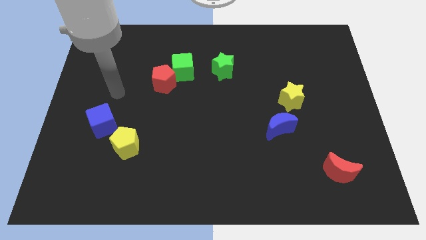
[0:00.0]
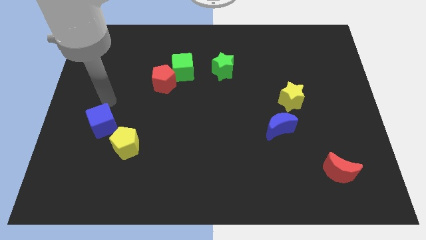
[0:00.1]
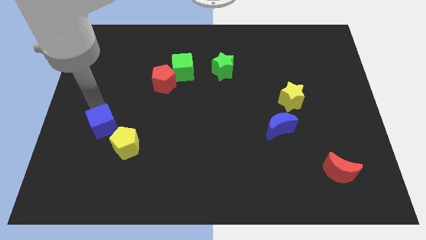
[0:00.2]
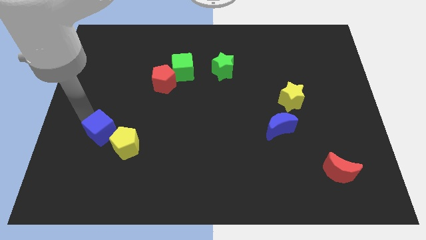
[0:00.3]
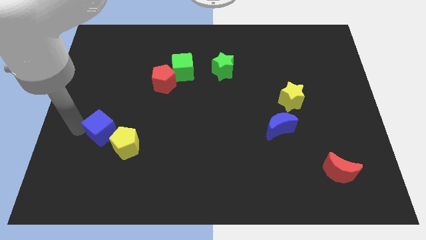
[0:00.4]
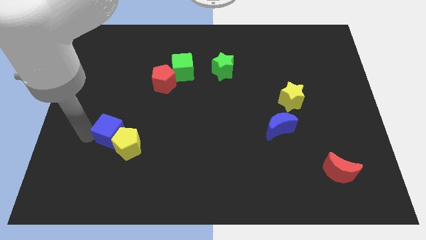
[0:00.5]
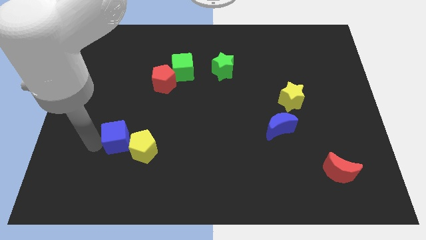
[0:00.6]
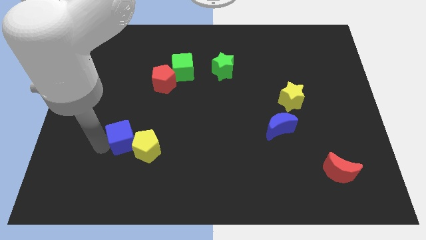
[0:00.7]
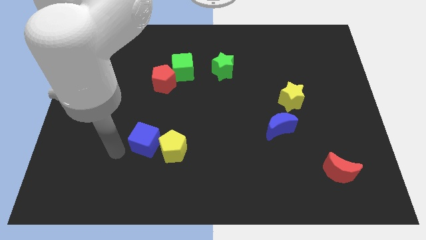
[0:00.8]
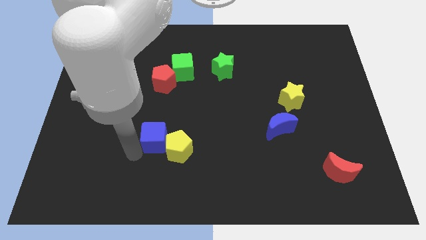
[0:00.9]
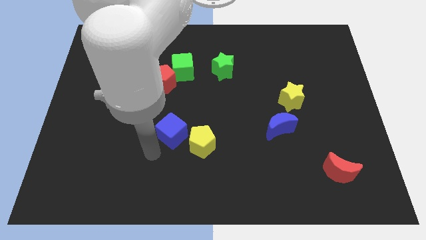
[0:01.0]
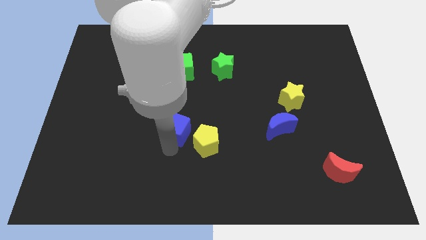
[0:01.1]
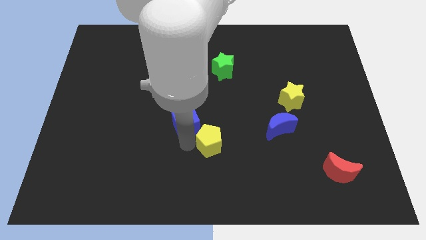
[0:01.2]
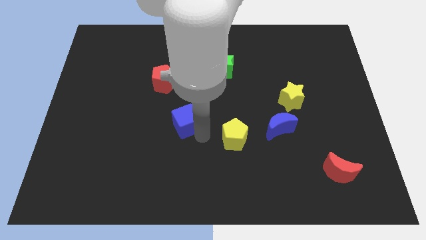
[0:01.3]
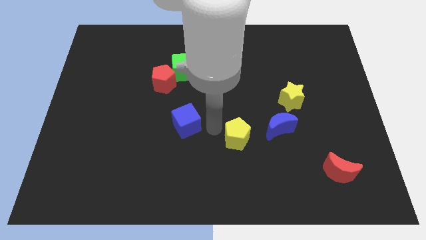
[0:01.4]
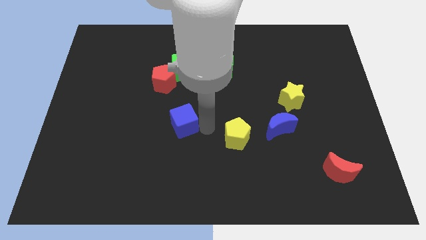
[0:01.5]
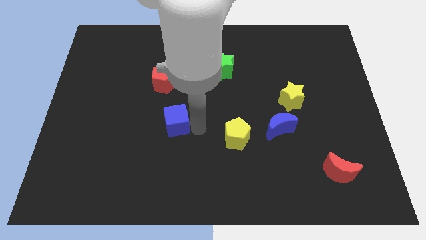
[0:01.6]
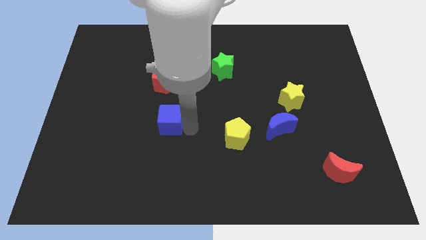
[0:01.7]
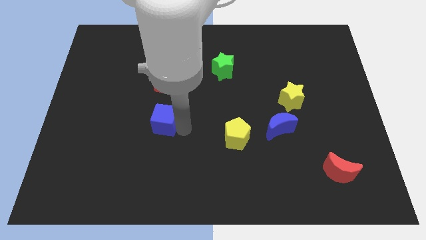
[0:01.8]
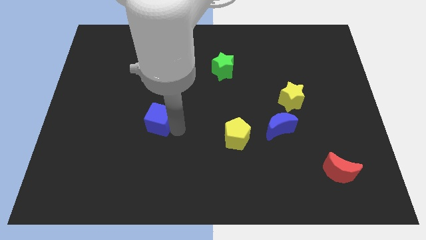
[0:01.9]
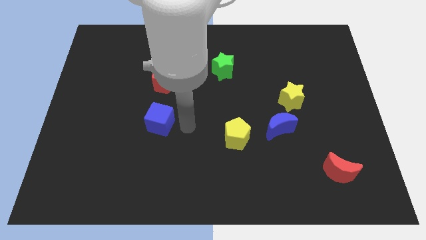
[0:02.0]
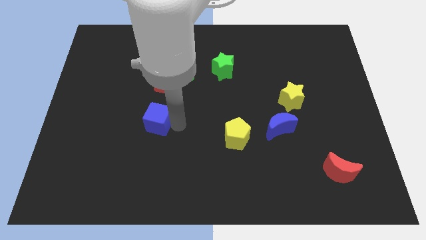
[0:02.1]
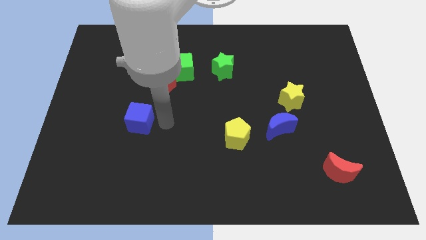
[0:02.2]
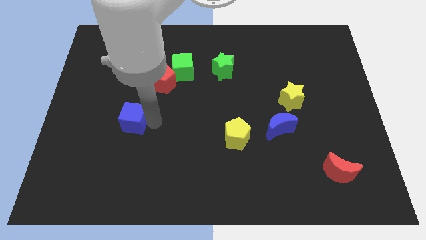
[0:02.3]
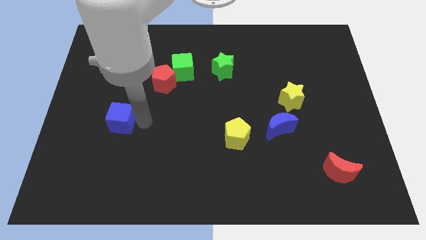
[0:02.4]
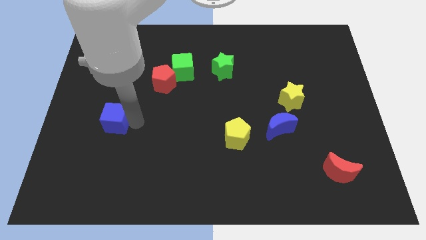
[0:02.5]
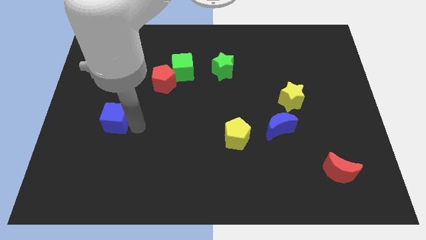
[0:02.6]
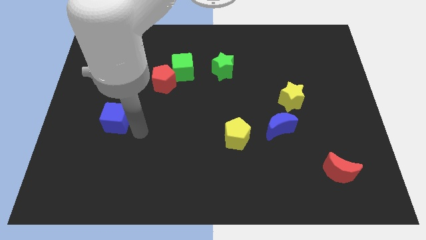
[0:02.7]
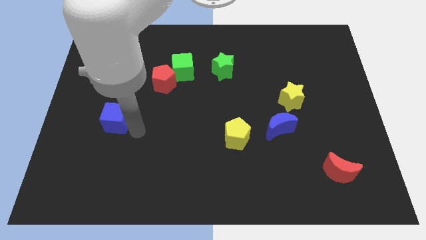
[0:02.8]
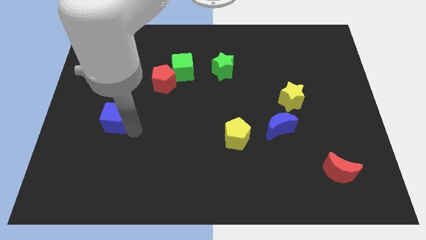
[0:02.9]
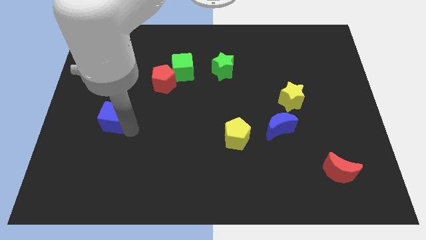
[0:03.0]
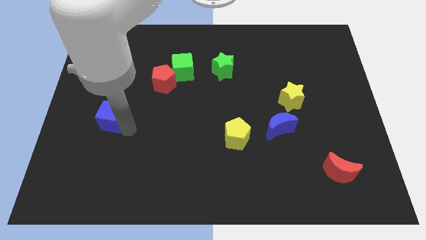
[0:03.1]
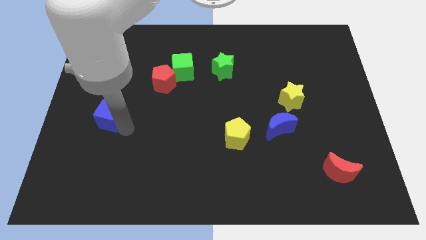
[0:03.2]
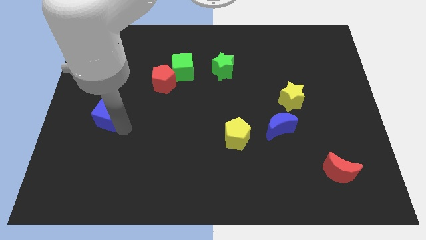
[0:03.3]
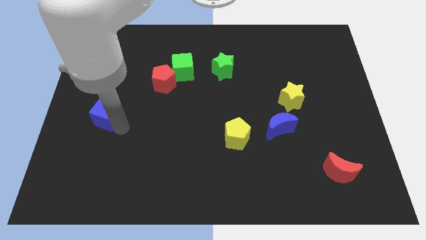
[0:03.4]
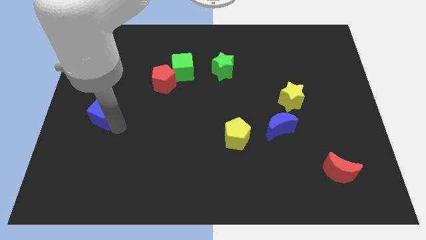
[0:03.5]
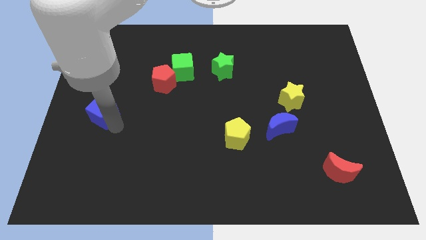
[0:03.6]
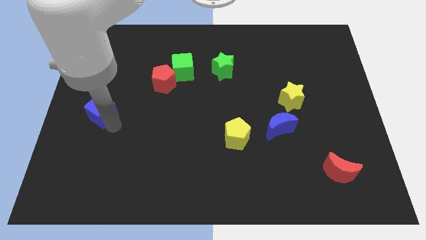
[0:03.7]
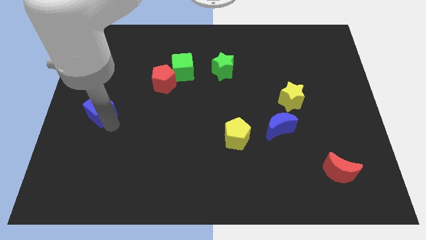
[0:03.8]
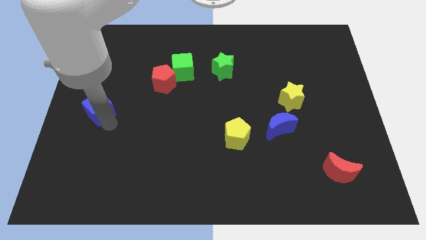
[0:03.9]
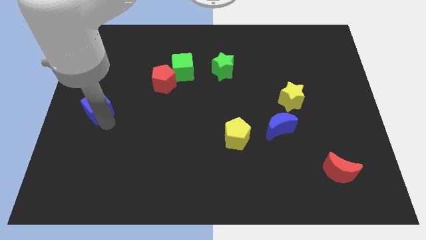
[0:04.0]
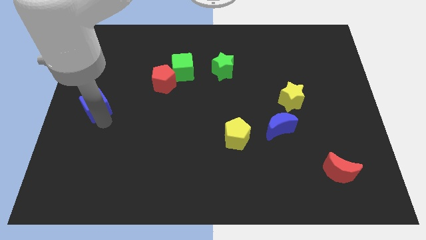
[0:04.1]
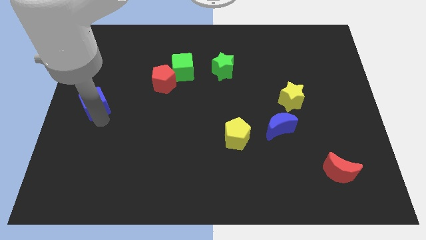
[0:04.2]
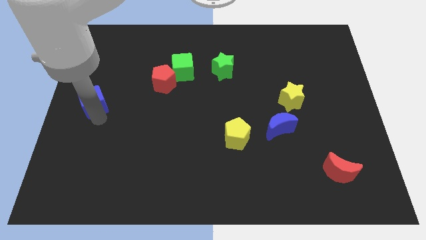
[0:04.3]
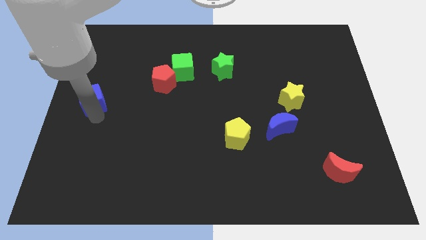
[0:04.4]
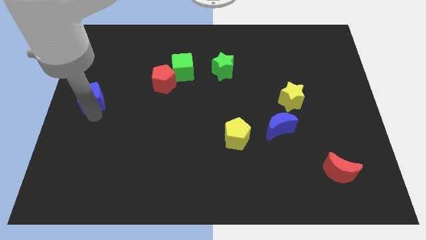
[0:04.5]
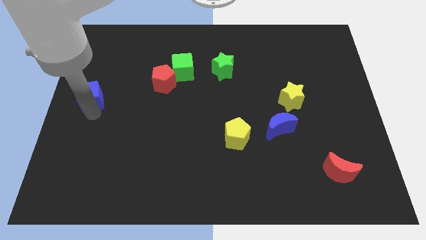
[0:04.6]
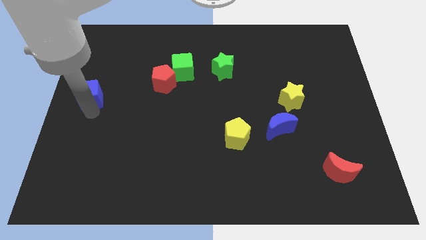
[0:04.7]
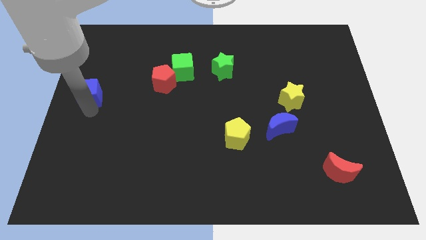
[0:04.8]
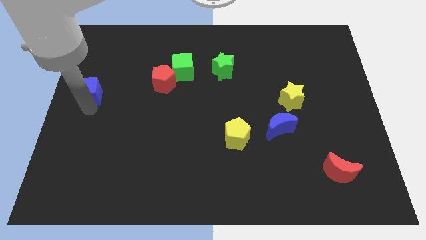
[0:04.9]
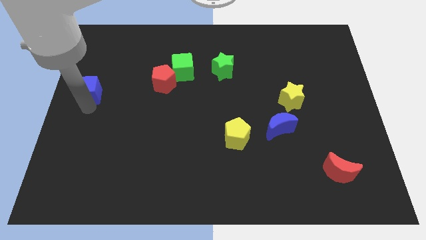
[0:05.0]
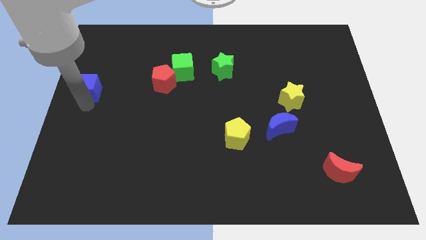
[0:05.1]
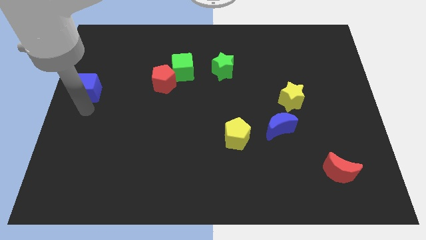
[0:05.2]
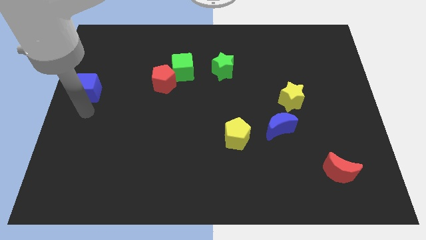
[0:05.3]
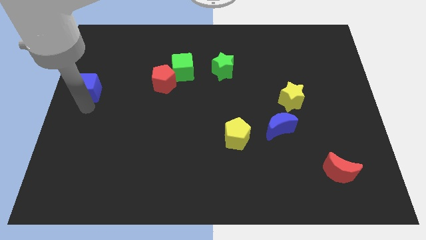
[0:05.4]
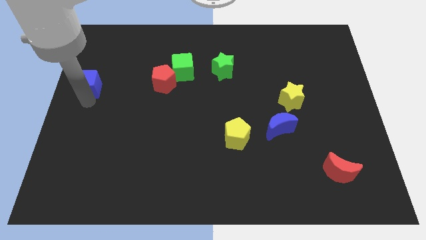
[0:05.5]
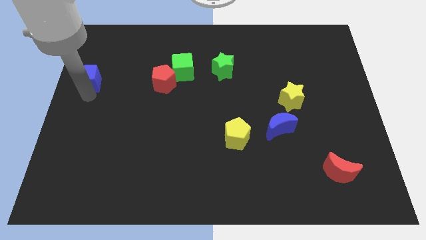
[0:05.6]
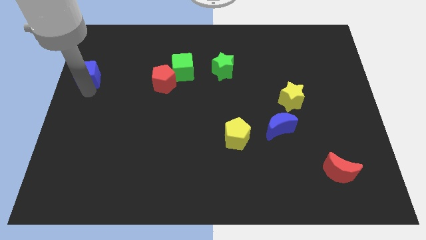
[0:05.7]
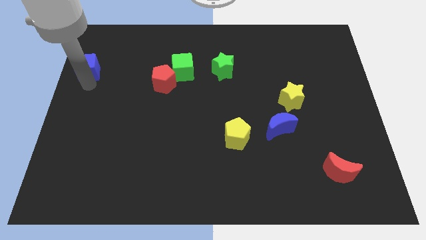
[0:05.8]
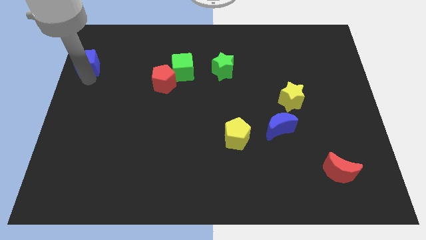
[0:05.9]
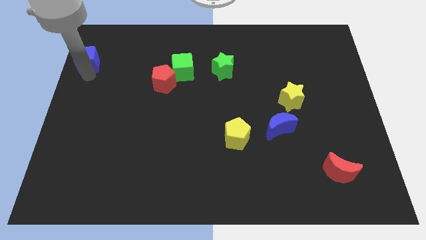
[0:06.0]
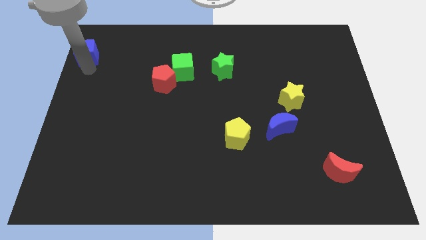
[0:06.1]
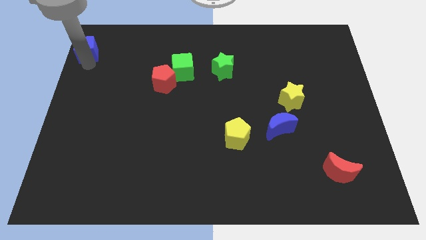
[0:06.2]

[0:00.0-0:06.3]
move the blue cube to the top left

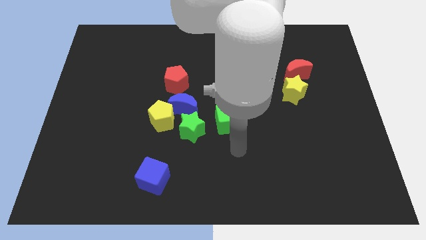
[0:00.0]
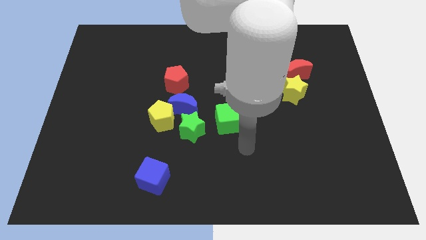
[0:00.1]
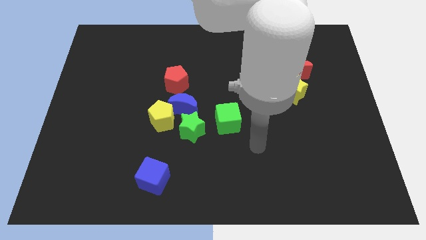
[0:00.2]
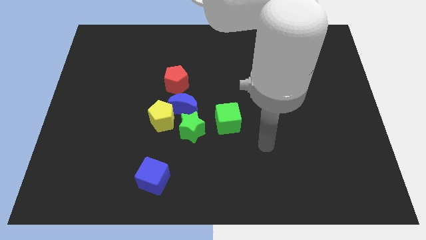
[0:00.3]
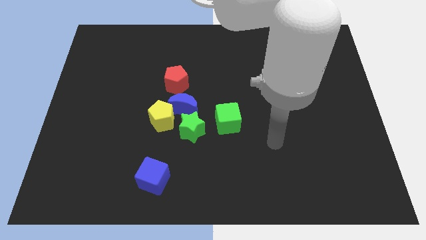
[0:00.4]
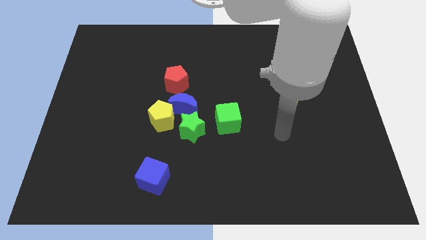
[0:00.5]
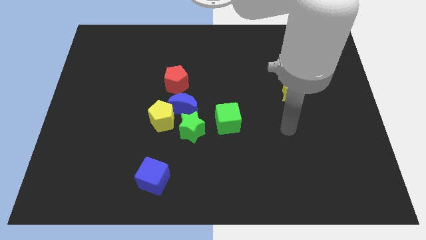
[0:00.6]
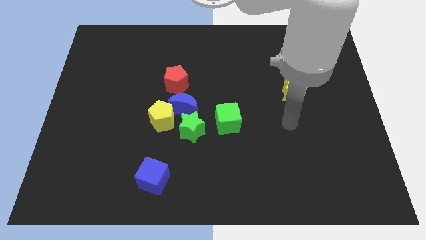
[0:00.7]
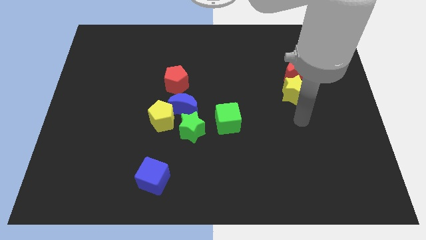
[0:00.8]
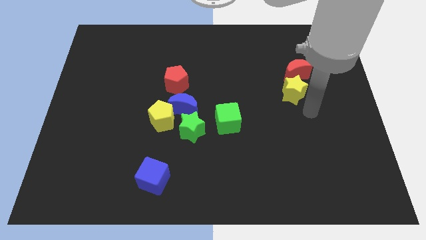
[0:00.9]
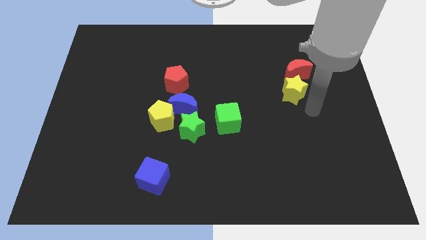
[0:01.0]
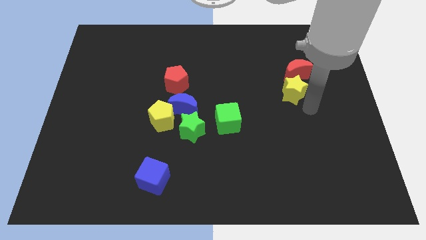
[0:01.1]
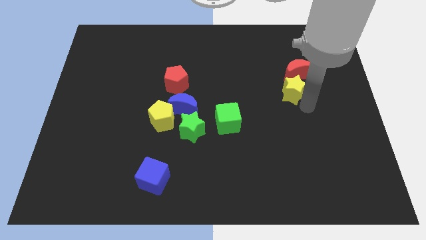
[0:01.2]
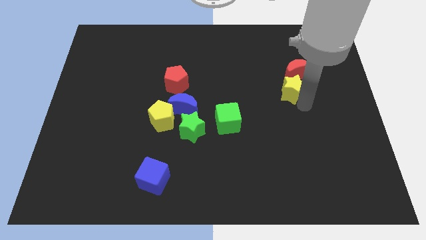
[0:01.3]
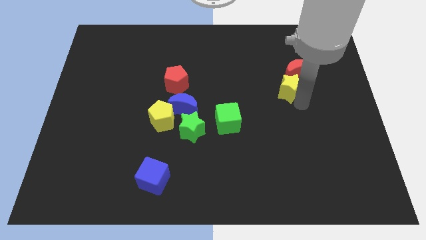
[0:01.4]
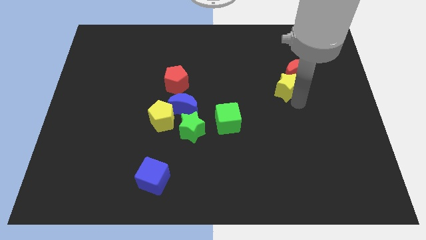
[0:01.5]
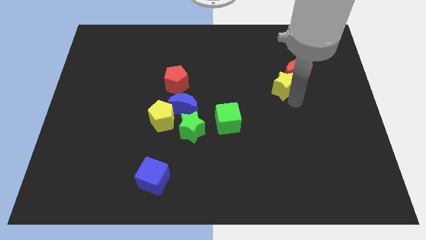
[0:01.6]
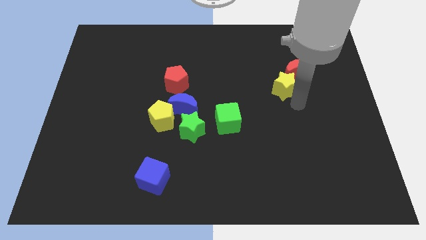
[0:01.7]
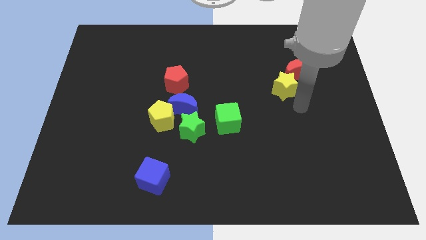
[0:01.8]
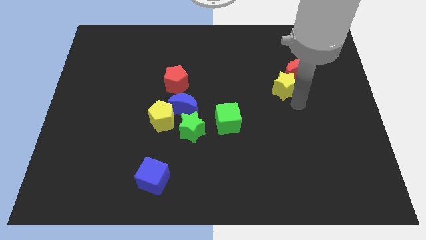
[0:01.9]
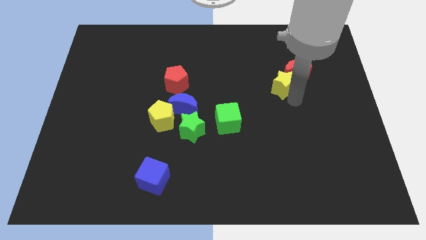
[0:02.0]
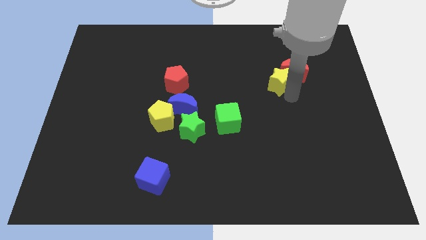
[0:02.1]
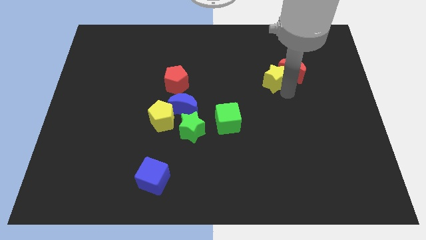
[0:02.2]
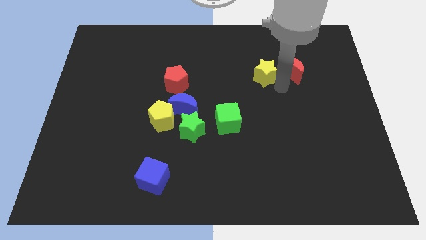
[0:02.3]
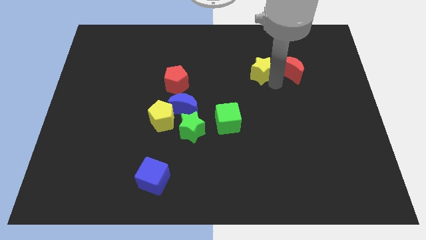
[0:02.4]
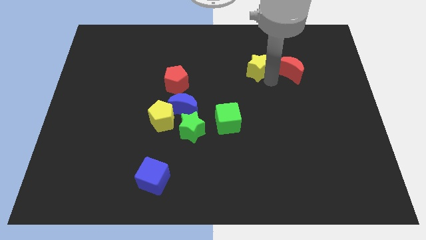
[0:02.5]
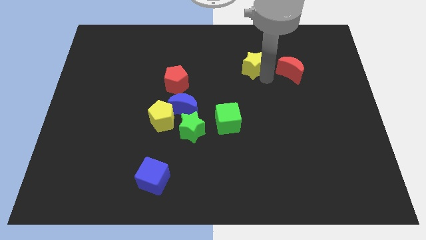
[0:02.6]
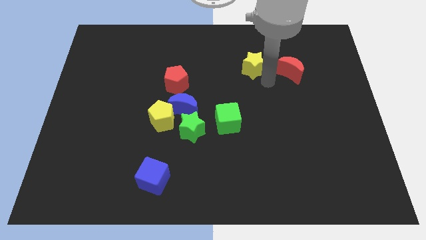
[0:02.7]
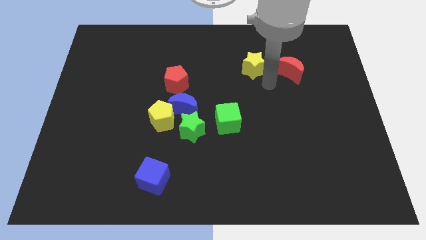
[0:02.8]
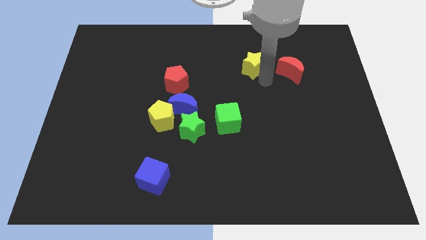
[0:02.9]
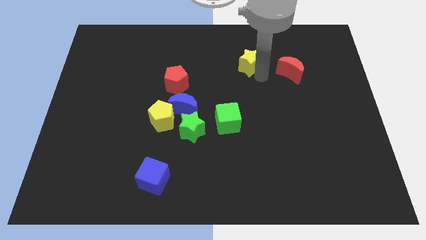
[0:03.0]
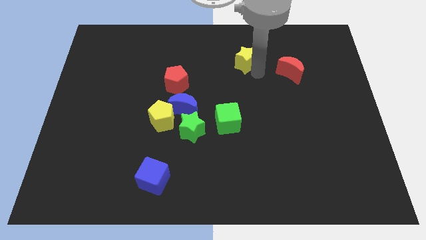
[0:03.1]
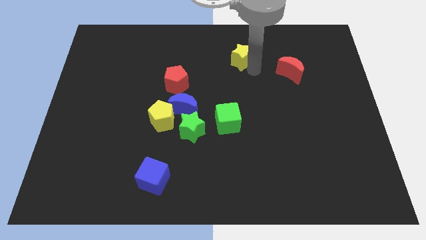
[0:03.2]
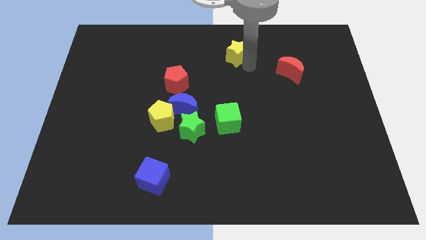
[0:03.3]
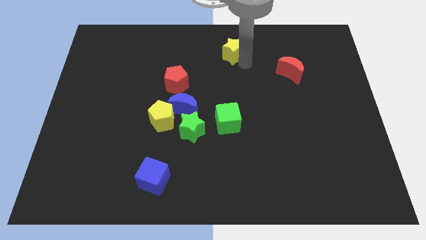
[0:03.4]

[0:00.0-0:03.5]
push the yellow star to the top side
